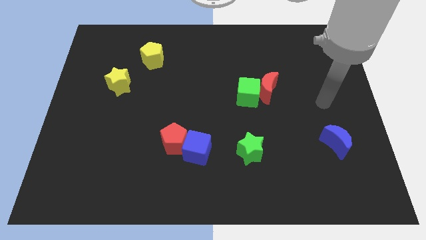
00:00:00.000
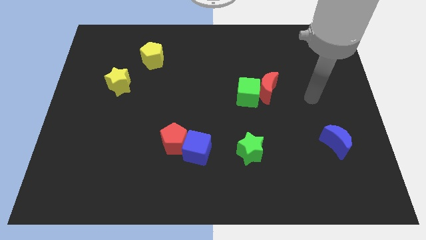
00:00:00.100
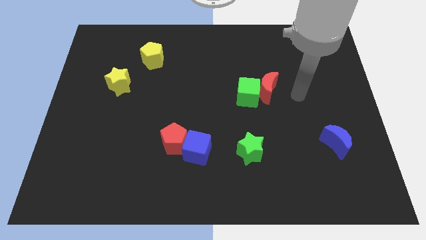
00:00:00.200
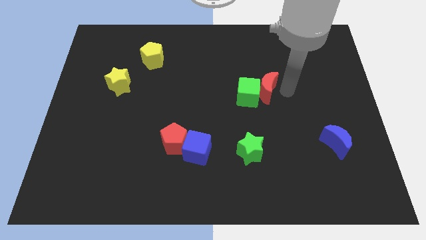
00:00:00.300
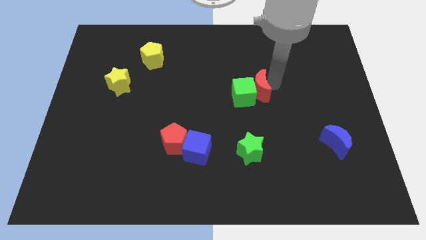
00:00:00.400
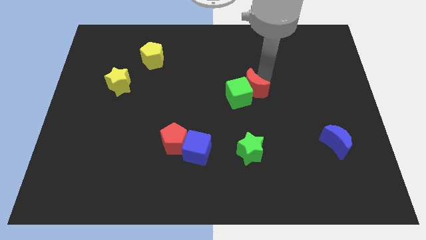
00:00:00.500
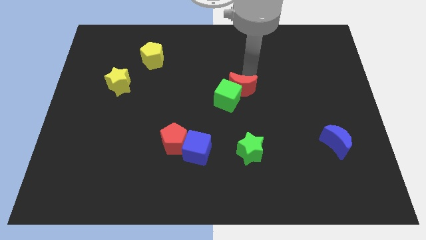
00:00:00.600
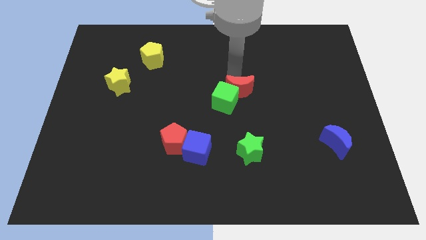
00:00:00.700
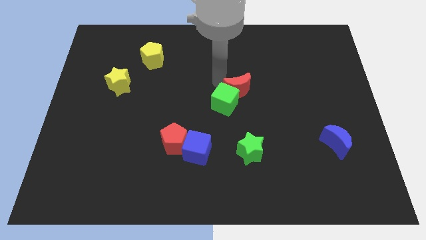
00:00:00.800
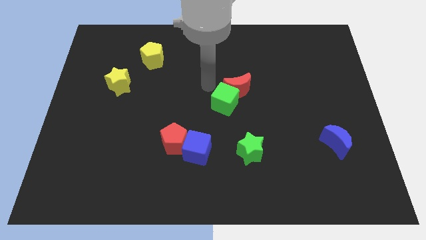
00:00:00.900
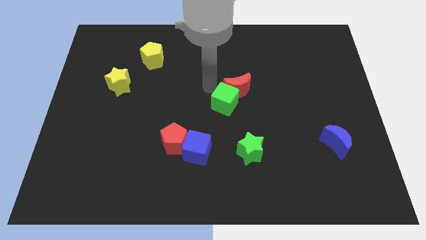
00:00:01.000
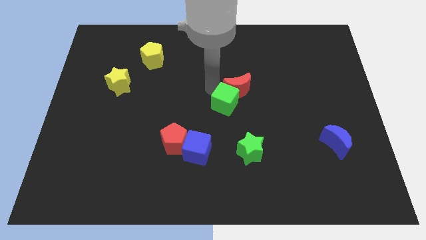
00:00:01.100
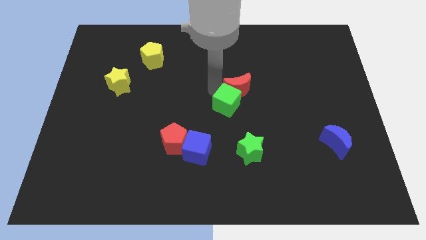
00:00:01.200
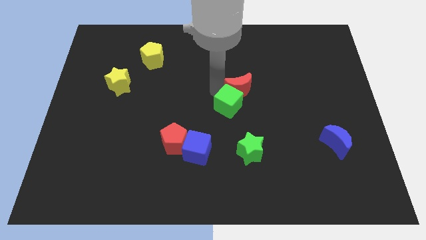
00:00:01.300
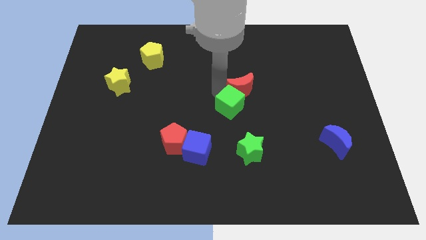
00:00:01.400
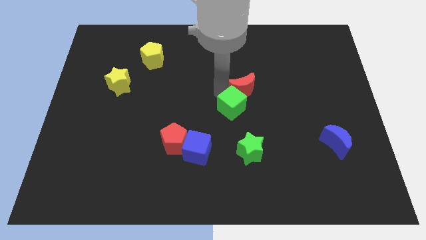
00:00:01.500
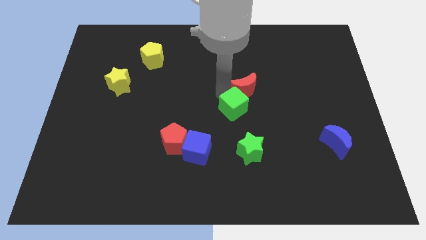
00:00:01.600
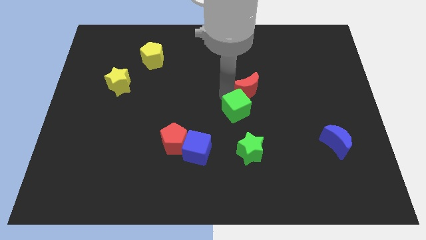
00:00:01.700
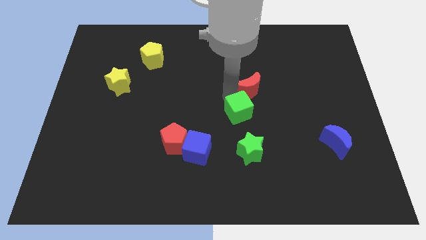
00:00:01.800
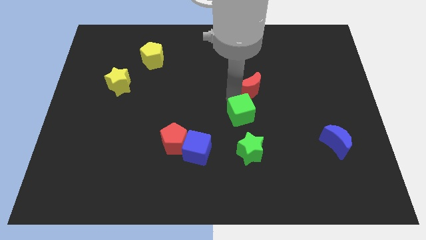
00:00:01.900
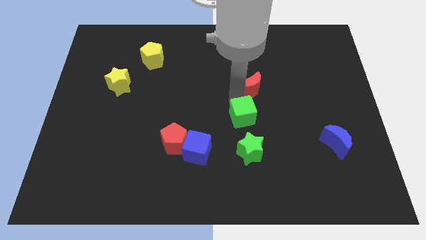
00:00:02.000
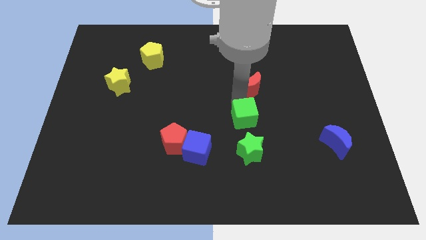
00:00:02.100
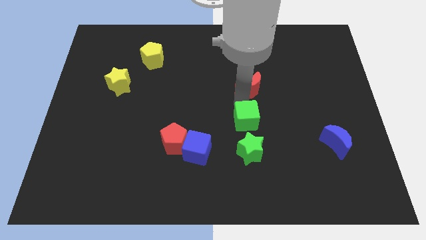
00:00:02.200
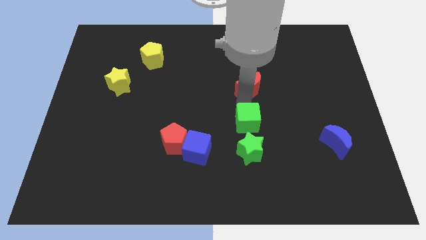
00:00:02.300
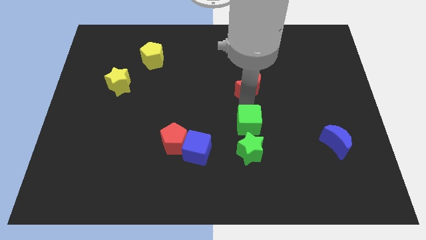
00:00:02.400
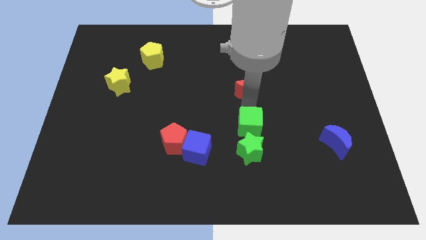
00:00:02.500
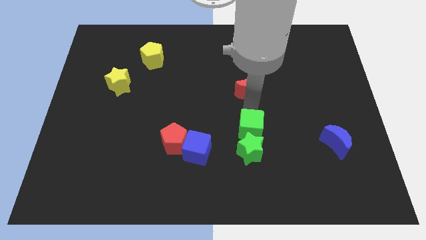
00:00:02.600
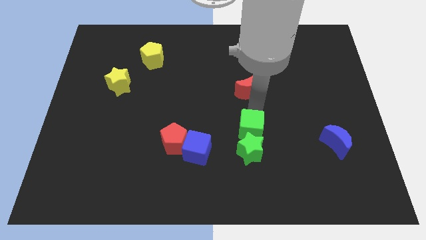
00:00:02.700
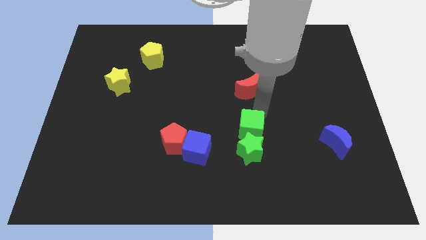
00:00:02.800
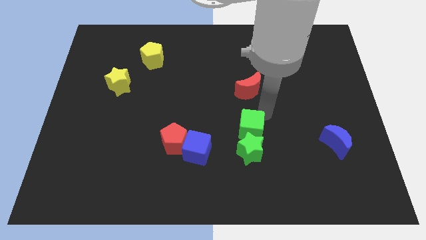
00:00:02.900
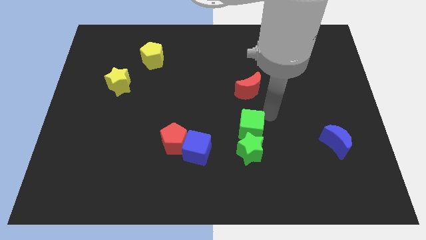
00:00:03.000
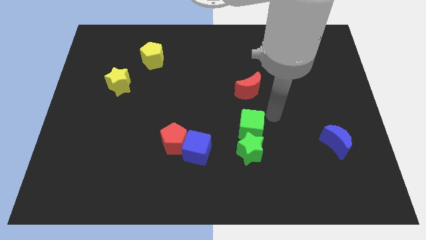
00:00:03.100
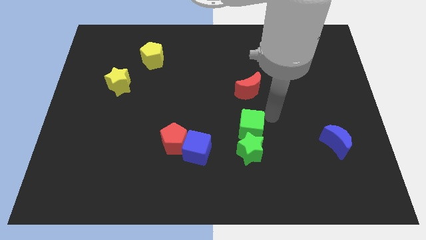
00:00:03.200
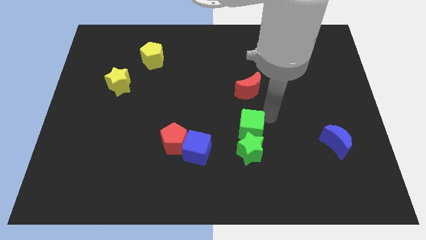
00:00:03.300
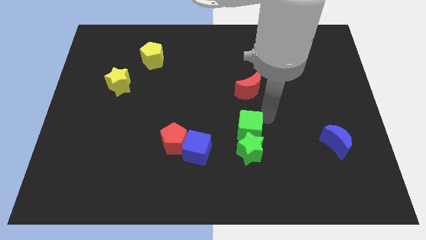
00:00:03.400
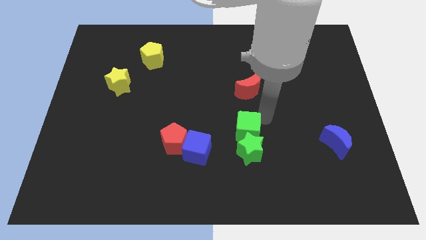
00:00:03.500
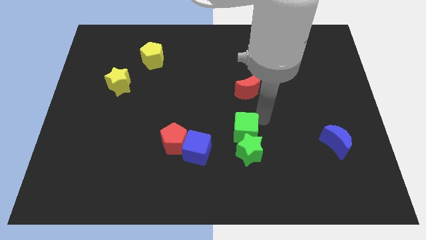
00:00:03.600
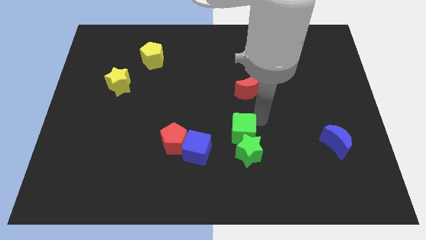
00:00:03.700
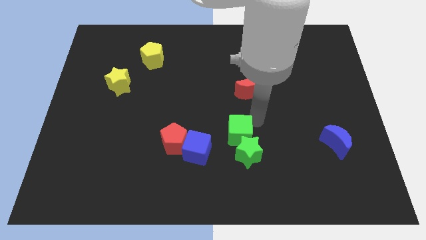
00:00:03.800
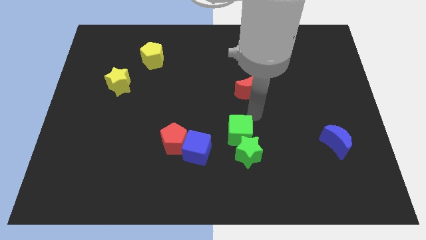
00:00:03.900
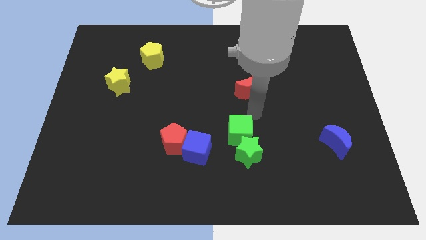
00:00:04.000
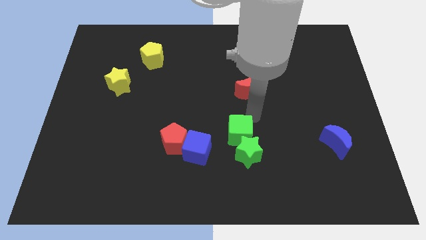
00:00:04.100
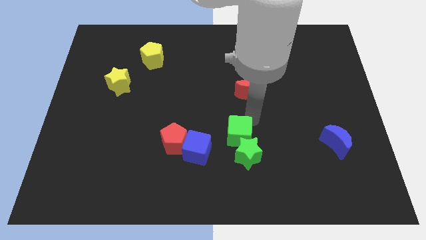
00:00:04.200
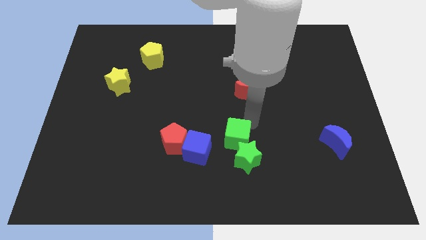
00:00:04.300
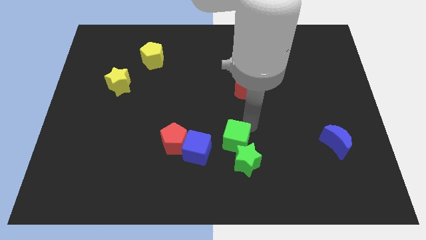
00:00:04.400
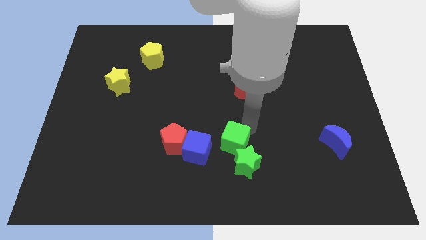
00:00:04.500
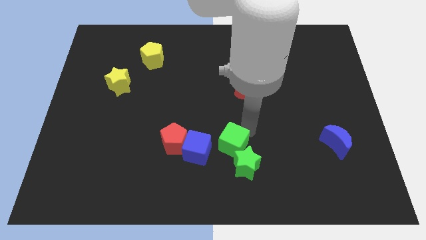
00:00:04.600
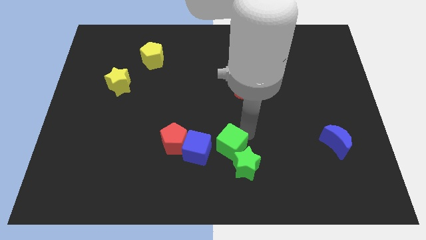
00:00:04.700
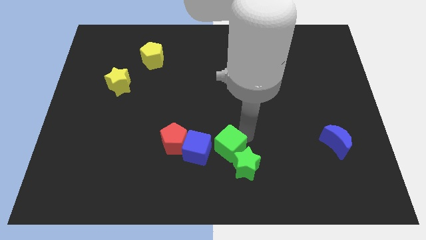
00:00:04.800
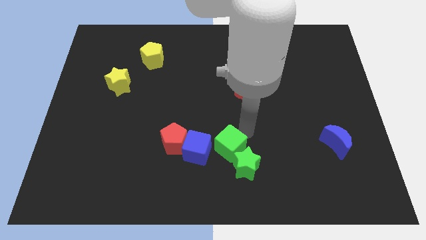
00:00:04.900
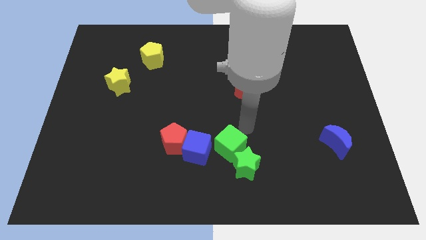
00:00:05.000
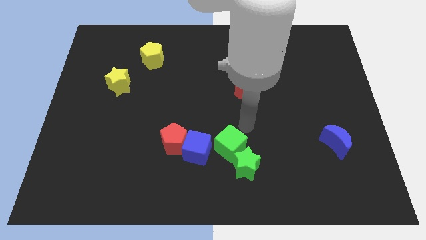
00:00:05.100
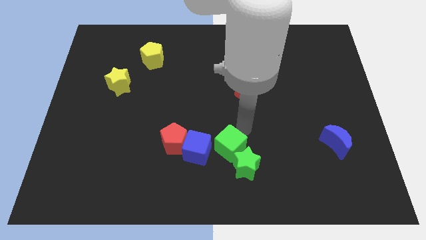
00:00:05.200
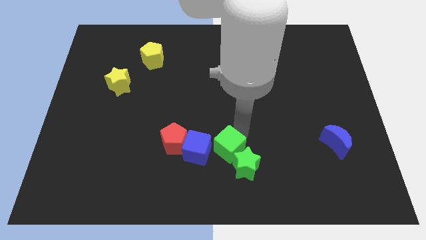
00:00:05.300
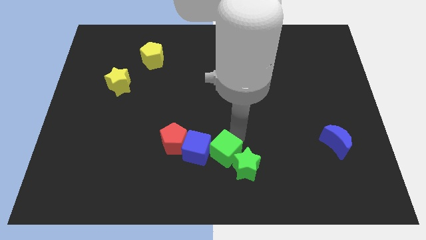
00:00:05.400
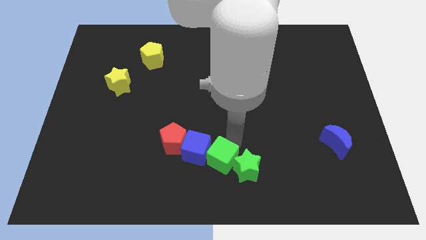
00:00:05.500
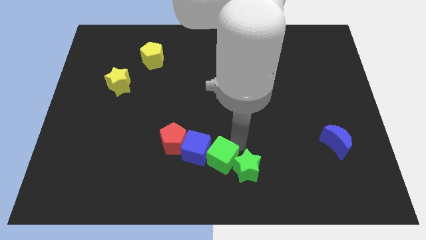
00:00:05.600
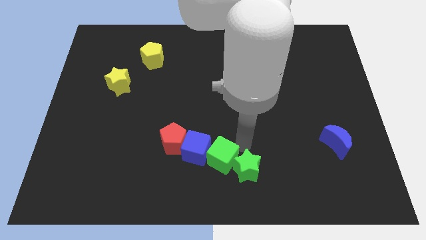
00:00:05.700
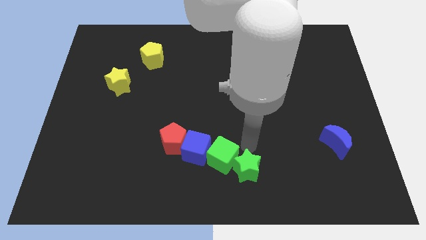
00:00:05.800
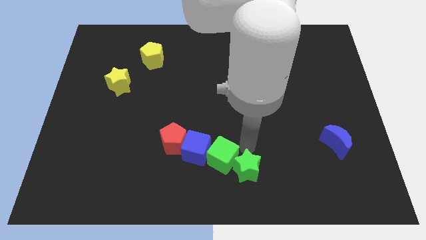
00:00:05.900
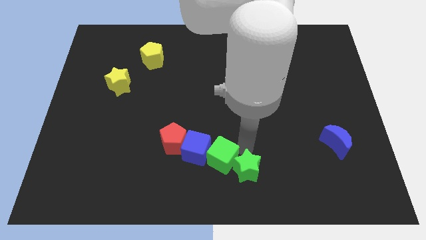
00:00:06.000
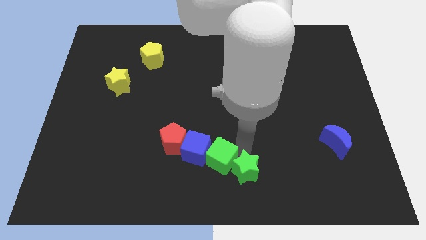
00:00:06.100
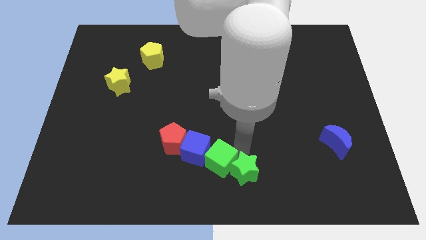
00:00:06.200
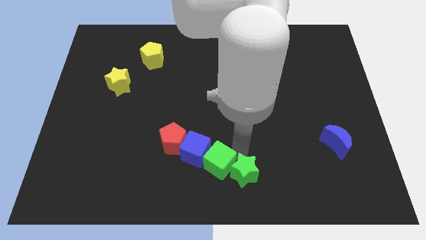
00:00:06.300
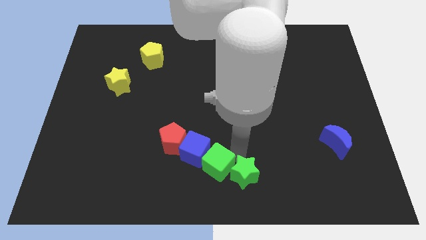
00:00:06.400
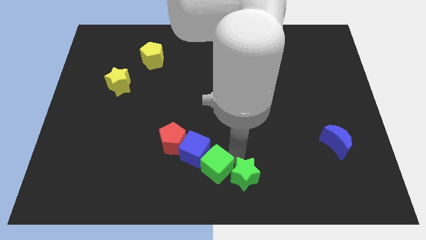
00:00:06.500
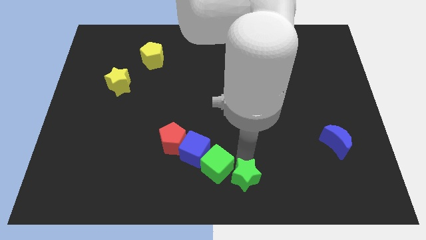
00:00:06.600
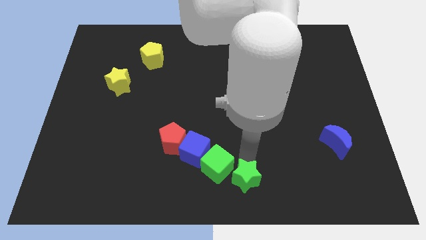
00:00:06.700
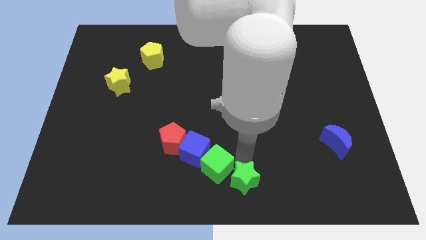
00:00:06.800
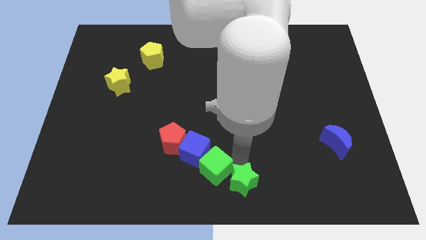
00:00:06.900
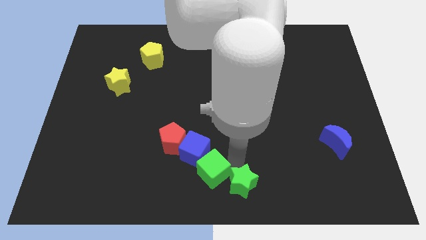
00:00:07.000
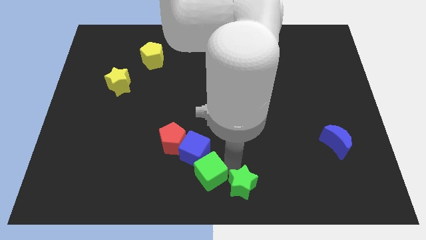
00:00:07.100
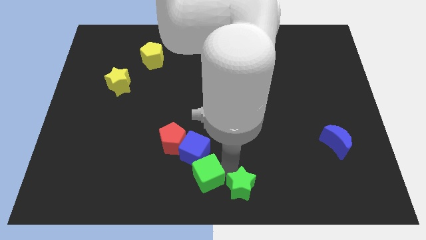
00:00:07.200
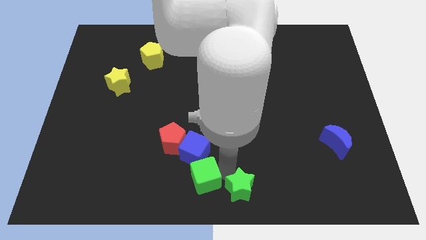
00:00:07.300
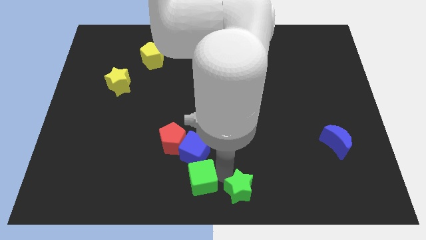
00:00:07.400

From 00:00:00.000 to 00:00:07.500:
push the green cube down and then left

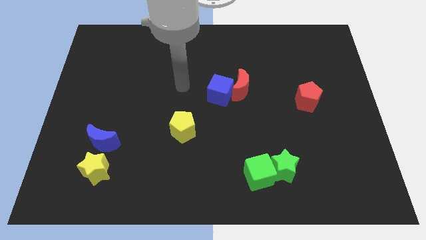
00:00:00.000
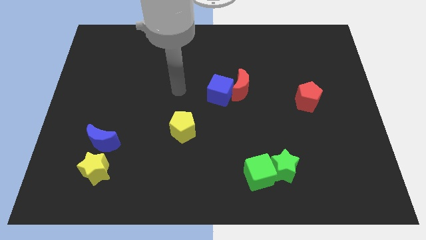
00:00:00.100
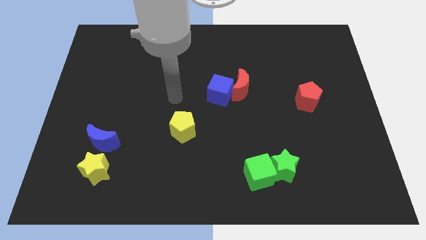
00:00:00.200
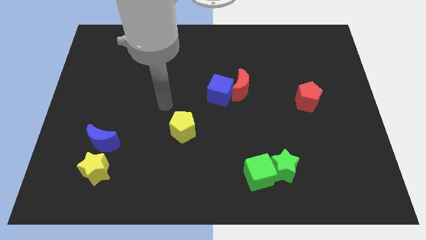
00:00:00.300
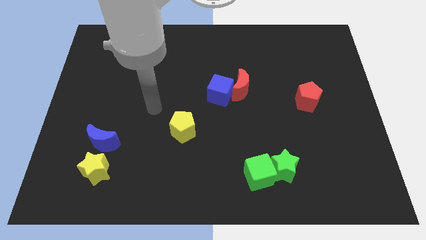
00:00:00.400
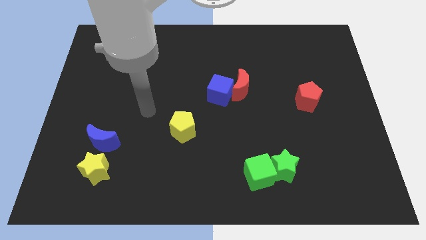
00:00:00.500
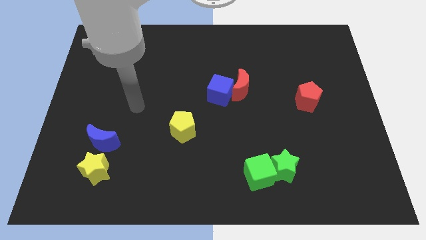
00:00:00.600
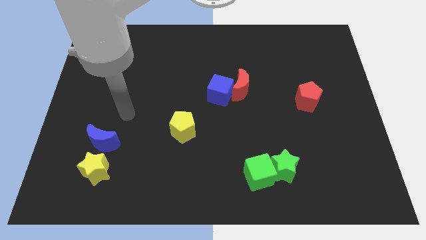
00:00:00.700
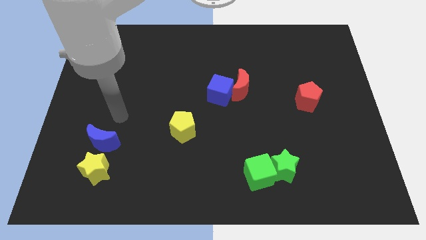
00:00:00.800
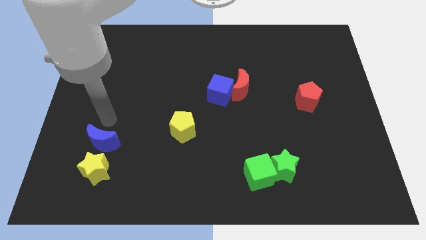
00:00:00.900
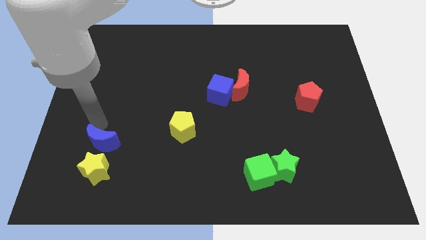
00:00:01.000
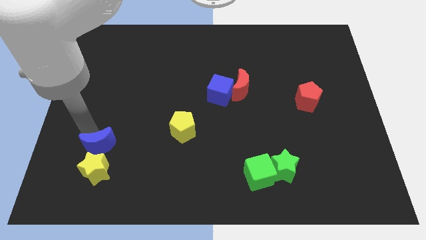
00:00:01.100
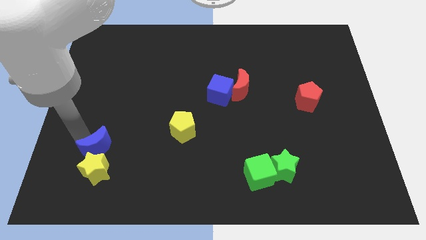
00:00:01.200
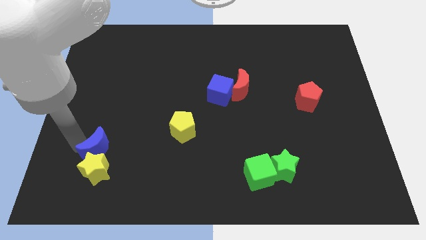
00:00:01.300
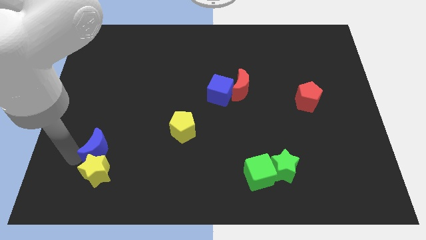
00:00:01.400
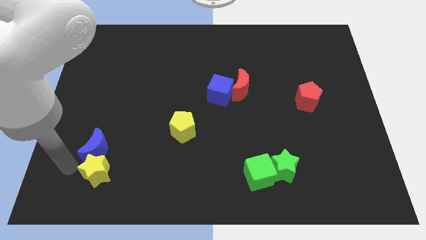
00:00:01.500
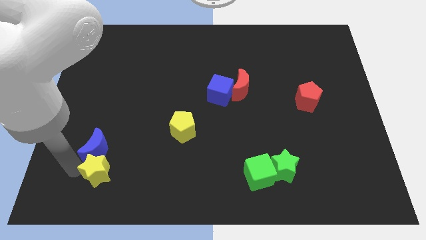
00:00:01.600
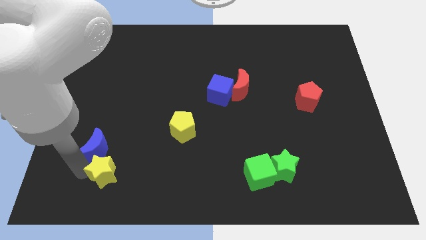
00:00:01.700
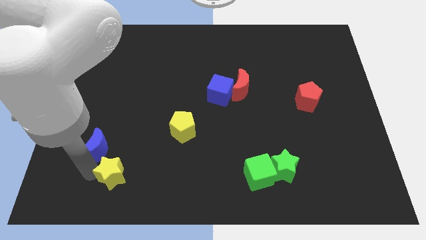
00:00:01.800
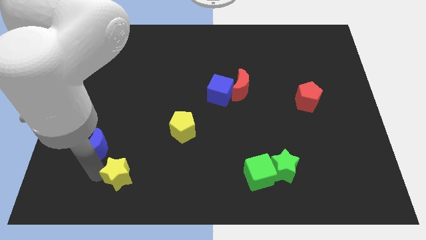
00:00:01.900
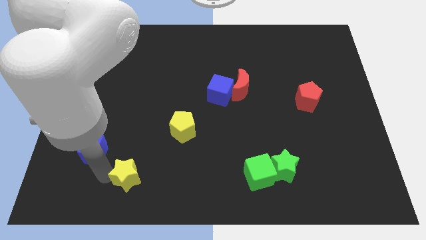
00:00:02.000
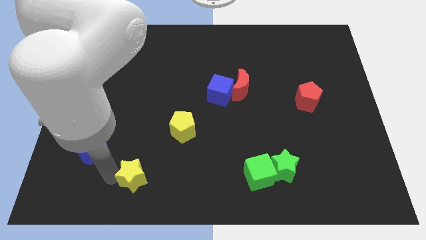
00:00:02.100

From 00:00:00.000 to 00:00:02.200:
slightly push the yellow star to the right
